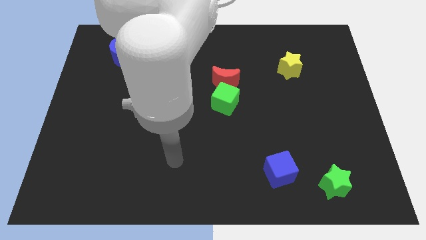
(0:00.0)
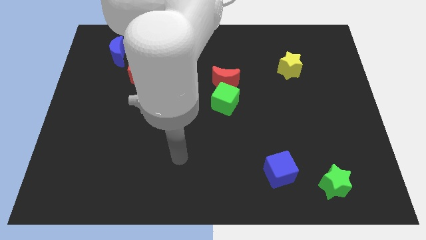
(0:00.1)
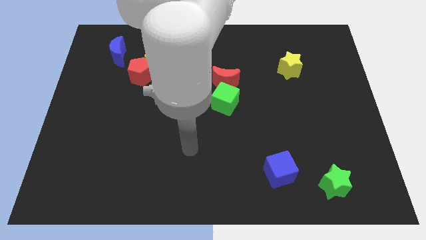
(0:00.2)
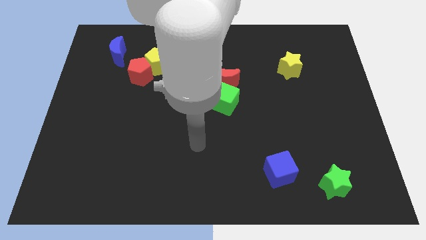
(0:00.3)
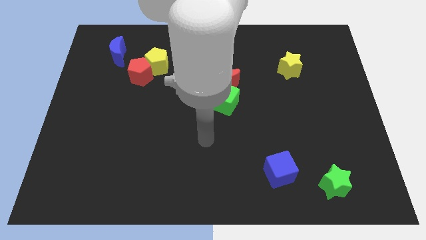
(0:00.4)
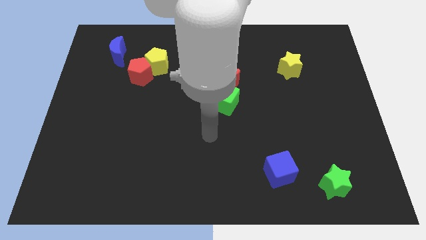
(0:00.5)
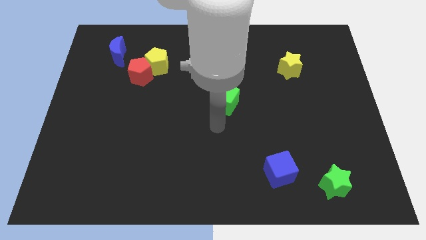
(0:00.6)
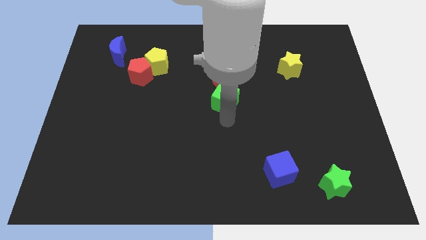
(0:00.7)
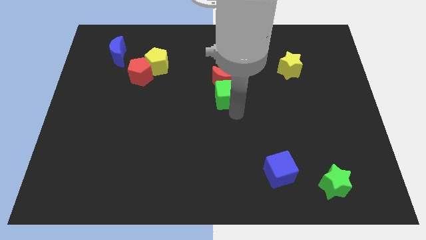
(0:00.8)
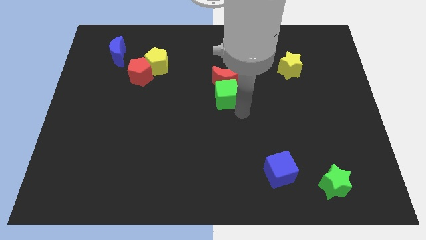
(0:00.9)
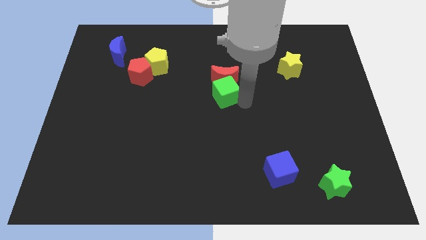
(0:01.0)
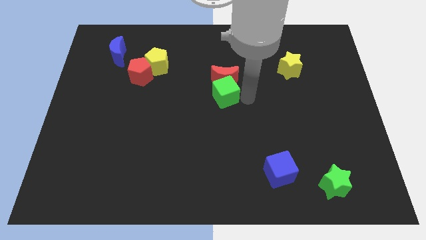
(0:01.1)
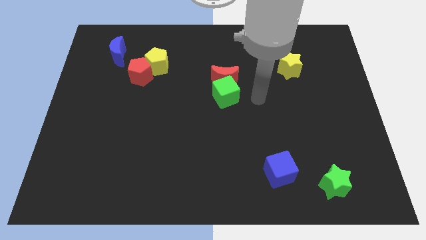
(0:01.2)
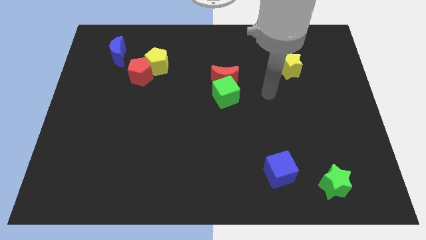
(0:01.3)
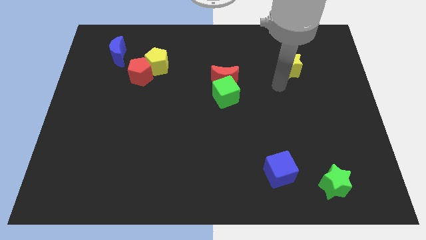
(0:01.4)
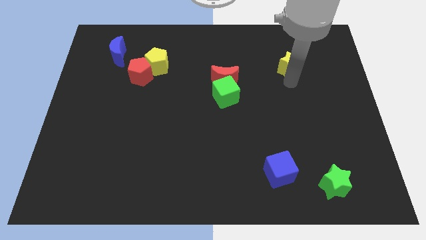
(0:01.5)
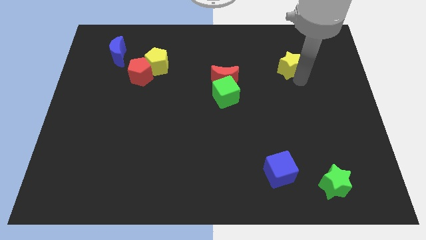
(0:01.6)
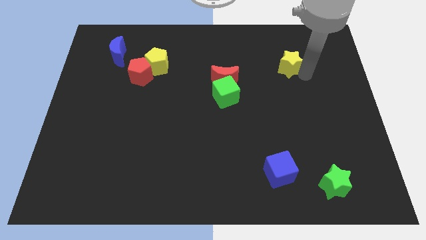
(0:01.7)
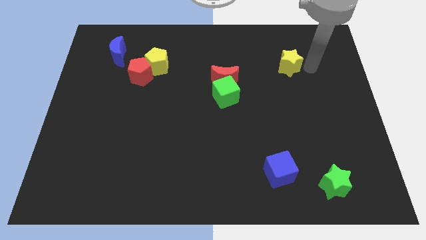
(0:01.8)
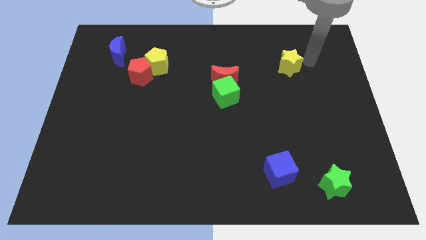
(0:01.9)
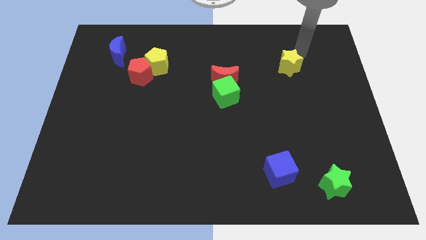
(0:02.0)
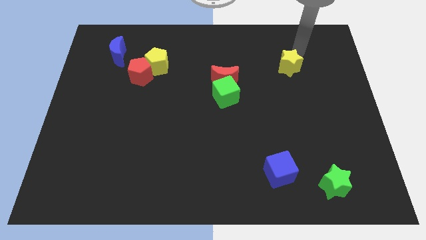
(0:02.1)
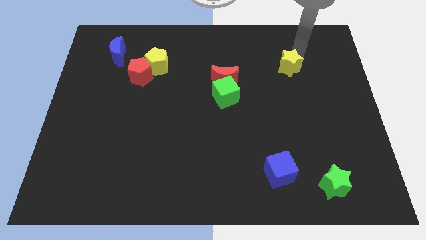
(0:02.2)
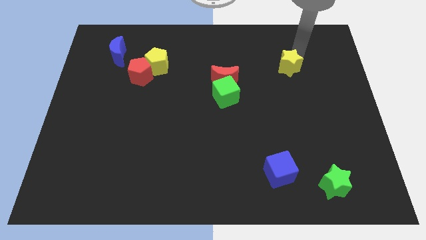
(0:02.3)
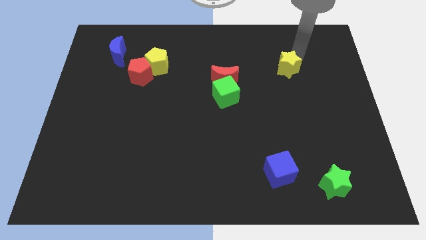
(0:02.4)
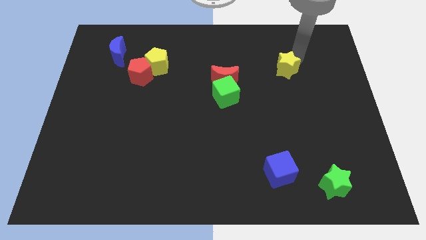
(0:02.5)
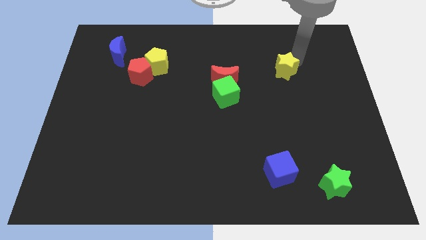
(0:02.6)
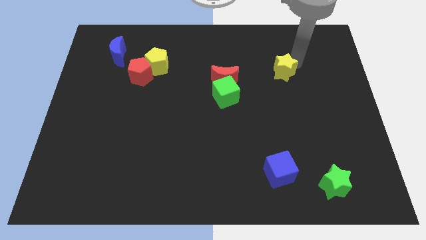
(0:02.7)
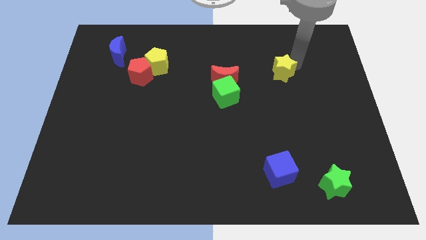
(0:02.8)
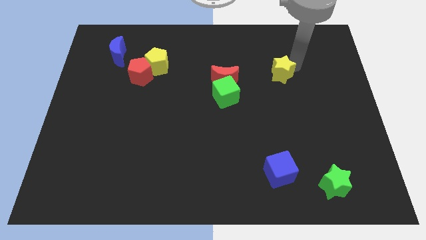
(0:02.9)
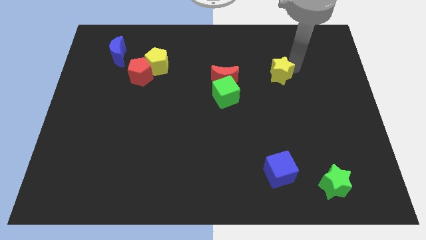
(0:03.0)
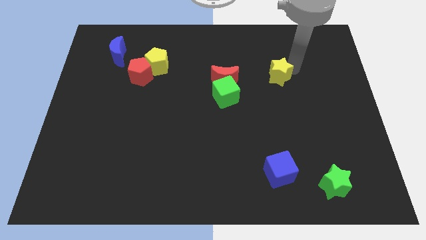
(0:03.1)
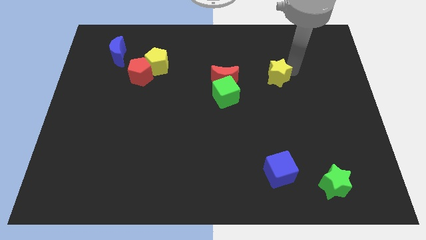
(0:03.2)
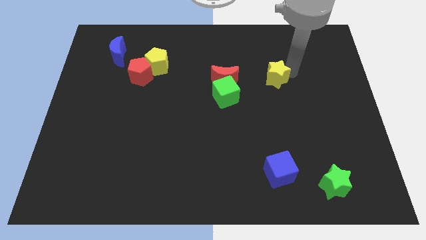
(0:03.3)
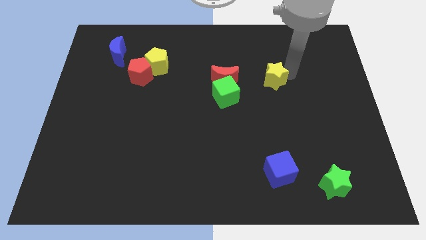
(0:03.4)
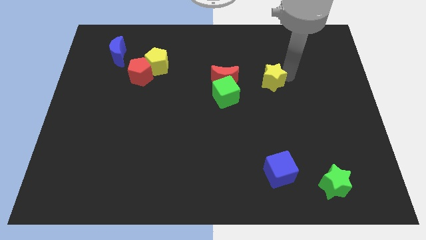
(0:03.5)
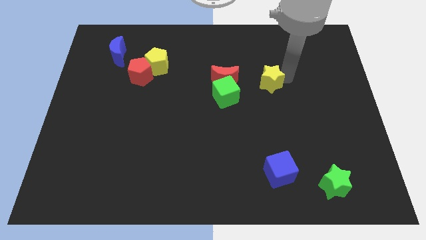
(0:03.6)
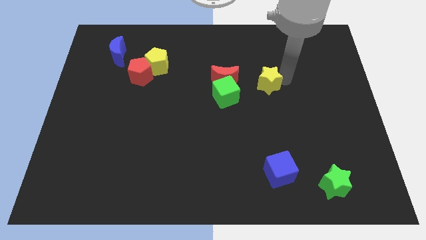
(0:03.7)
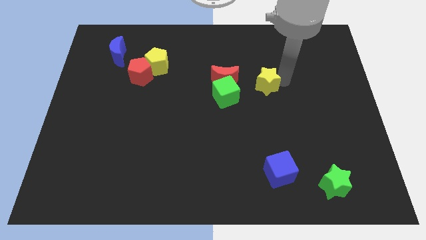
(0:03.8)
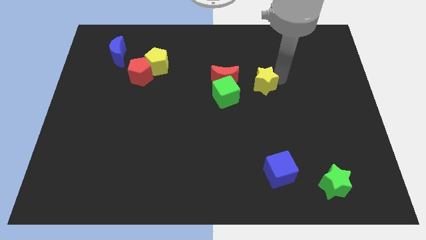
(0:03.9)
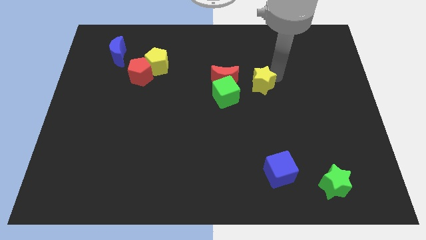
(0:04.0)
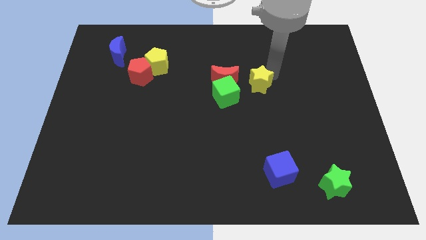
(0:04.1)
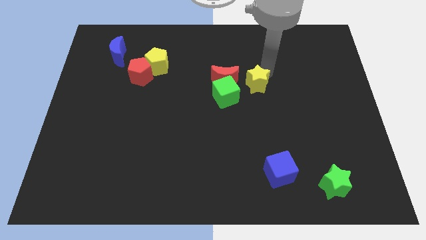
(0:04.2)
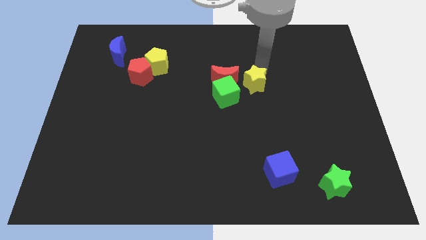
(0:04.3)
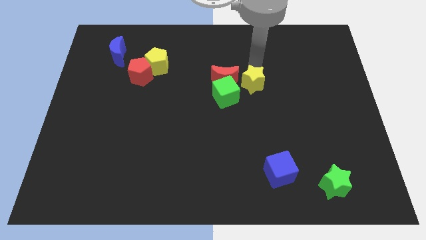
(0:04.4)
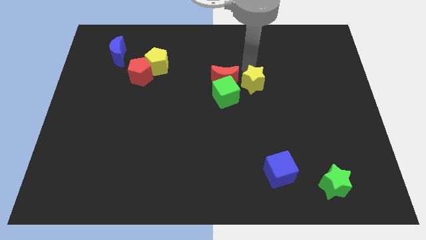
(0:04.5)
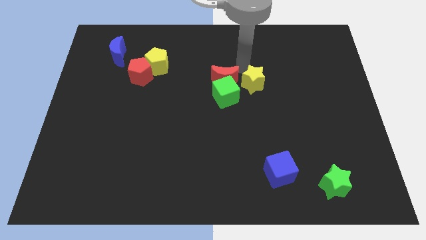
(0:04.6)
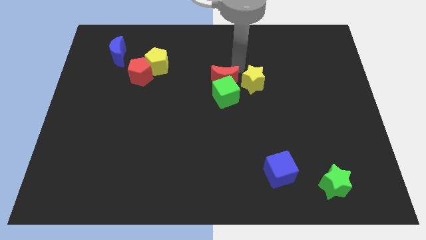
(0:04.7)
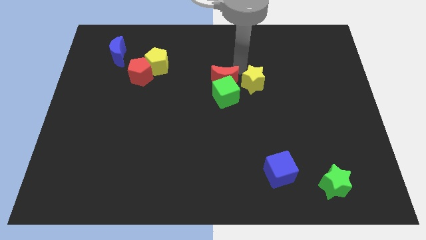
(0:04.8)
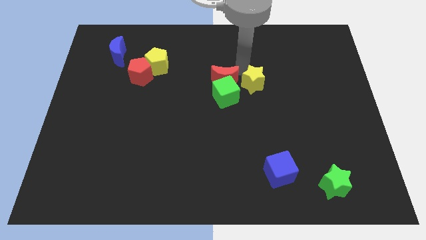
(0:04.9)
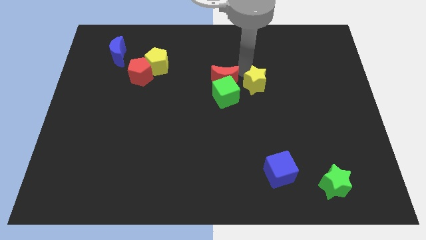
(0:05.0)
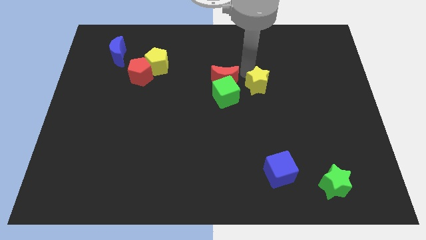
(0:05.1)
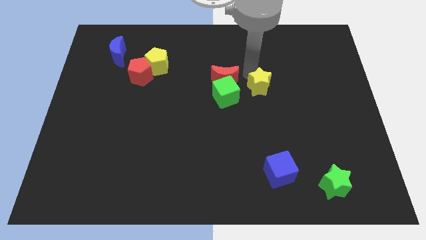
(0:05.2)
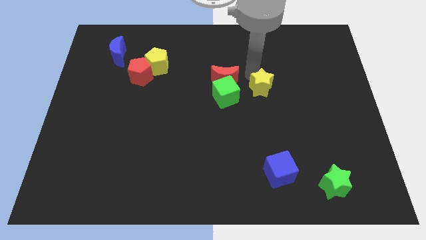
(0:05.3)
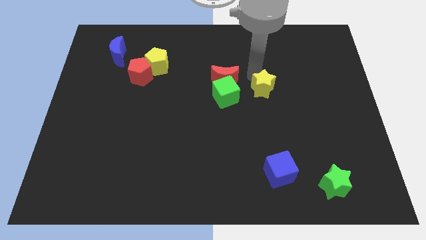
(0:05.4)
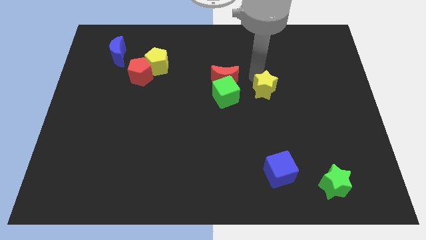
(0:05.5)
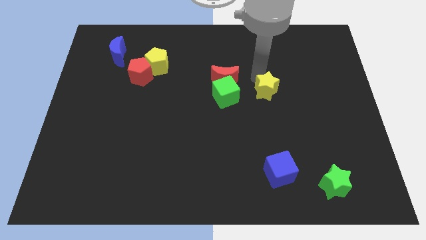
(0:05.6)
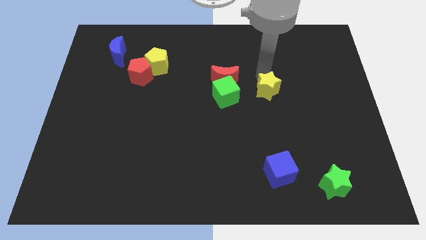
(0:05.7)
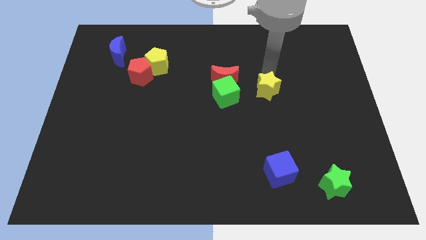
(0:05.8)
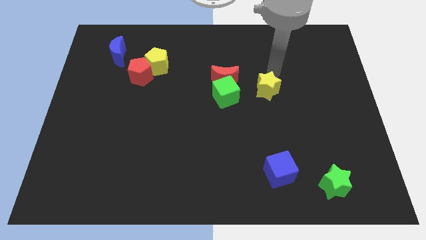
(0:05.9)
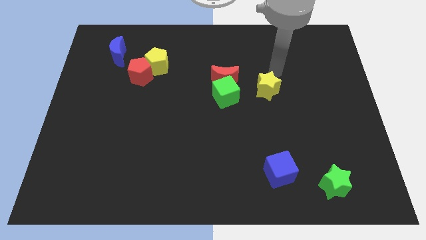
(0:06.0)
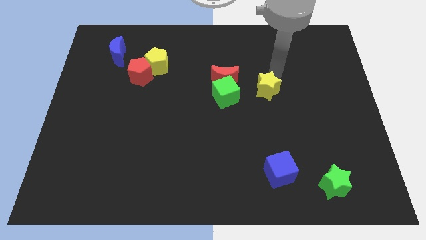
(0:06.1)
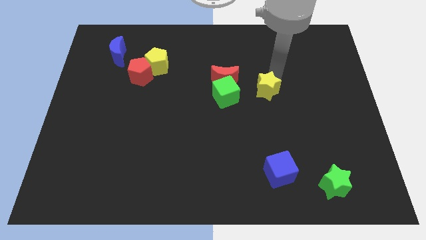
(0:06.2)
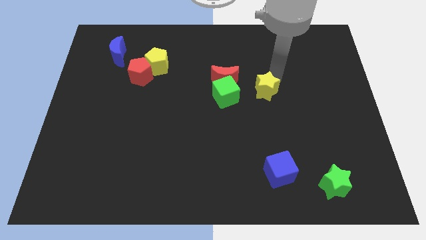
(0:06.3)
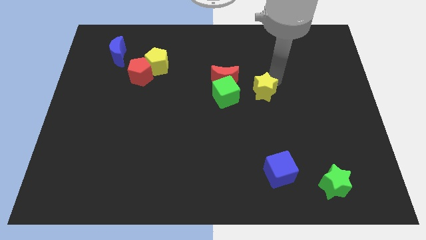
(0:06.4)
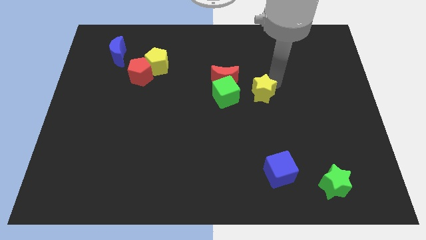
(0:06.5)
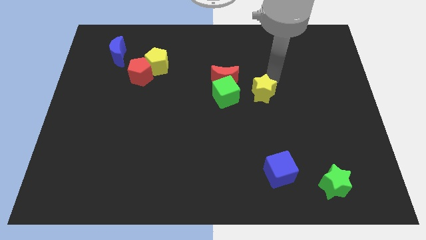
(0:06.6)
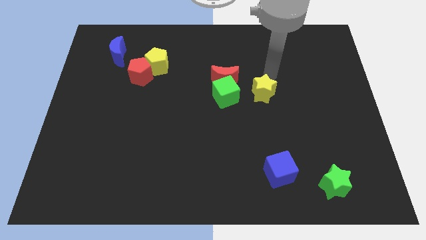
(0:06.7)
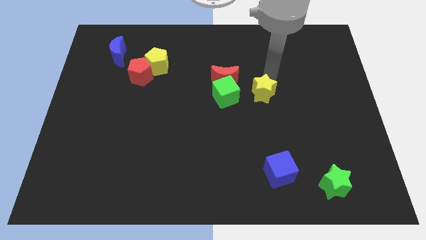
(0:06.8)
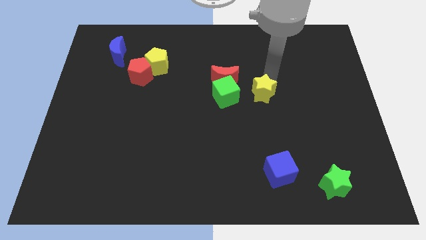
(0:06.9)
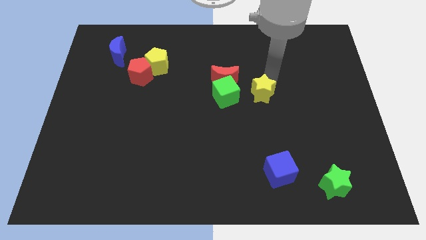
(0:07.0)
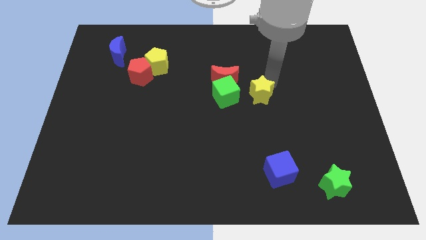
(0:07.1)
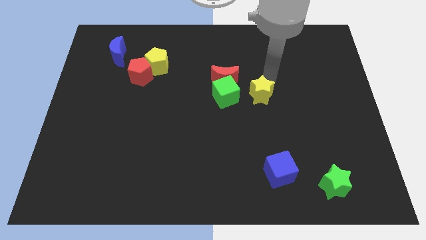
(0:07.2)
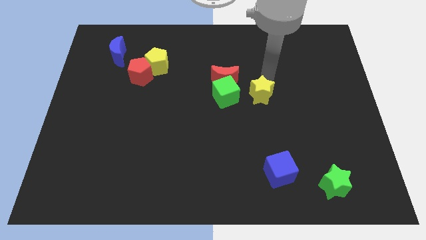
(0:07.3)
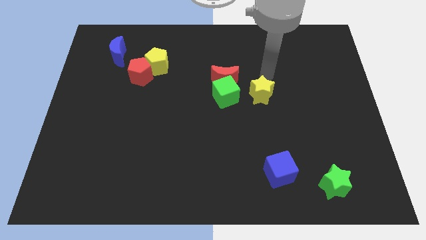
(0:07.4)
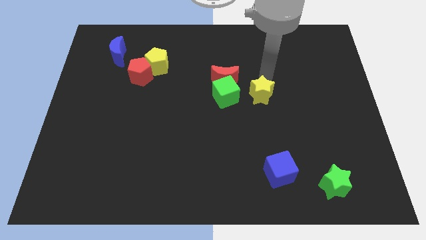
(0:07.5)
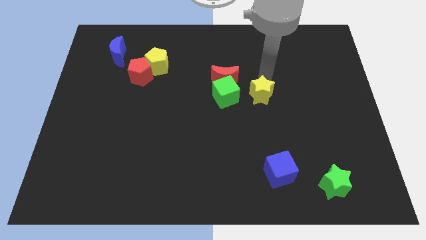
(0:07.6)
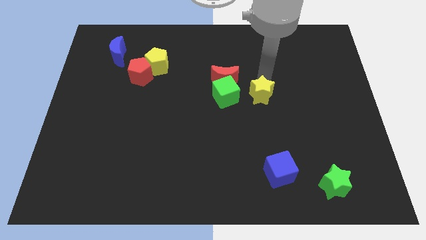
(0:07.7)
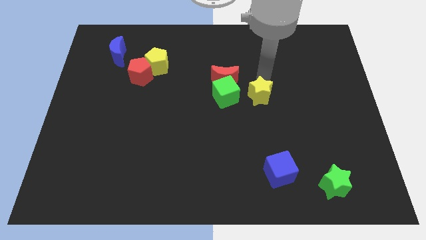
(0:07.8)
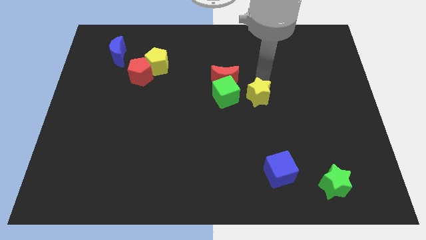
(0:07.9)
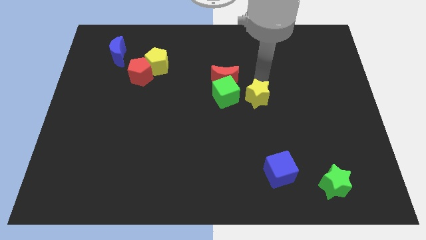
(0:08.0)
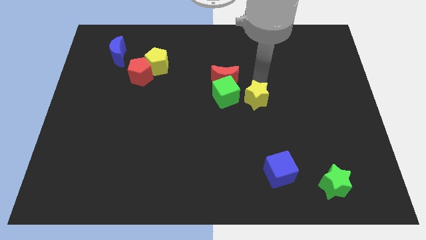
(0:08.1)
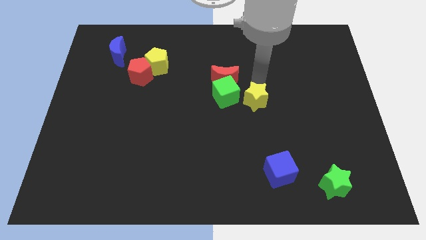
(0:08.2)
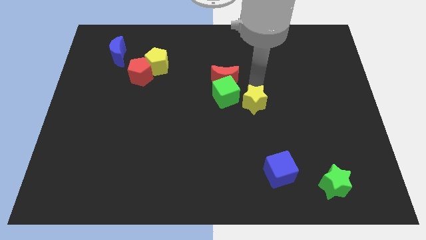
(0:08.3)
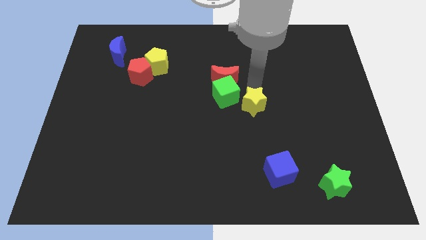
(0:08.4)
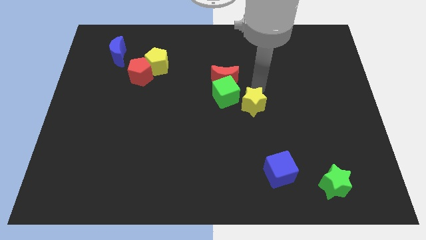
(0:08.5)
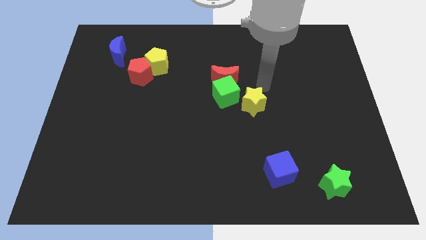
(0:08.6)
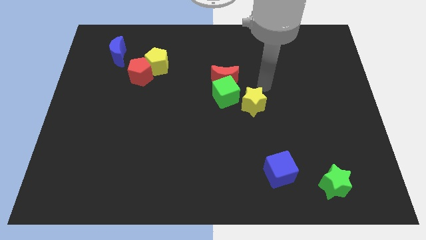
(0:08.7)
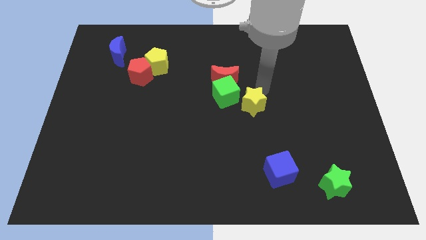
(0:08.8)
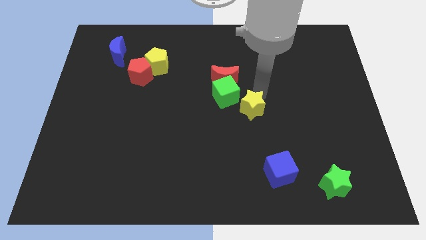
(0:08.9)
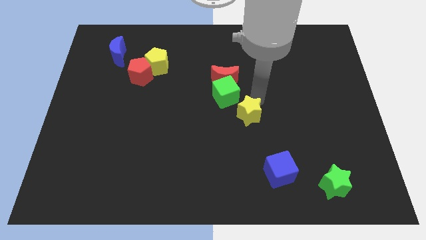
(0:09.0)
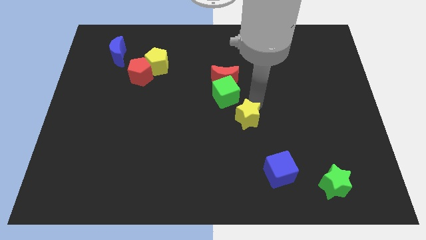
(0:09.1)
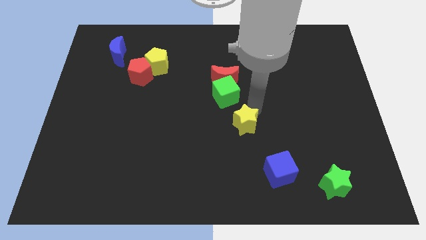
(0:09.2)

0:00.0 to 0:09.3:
move the yellow star to the bottom of the green cube
